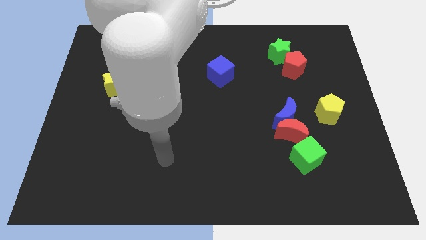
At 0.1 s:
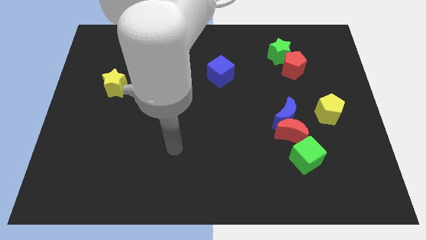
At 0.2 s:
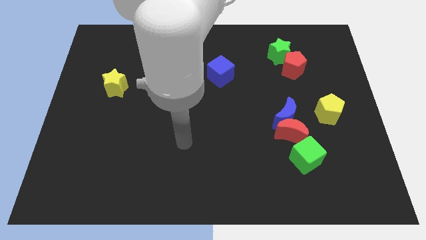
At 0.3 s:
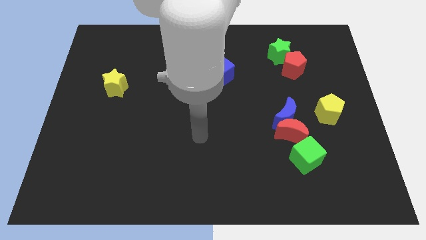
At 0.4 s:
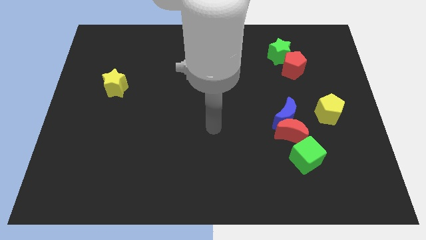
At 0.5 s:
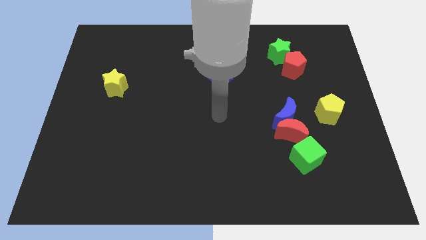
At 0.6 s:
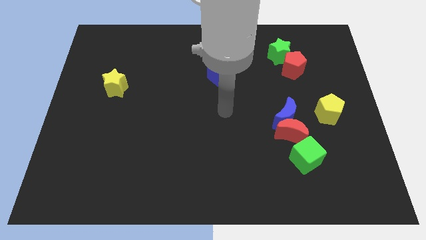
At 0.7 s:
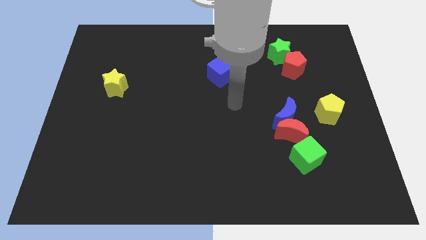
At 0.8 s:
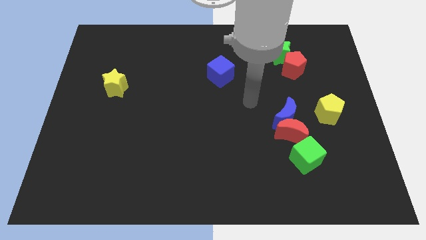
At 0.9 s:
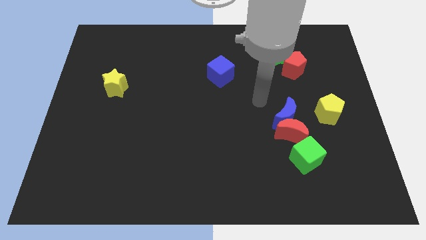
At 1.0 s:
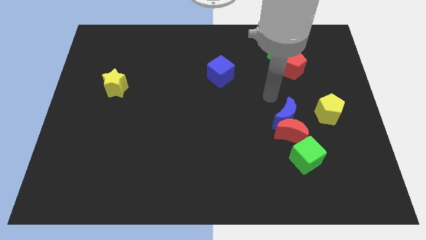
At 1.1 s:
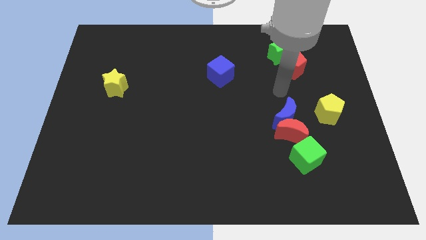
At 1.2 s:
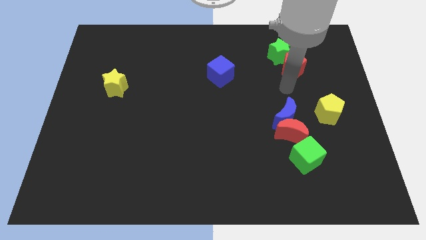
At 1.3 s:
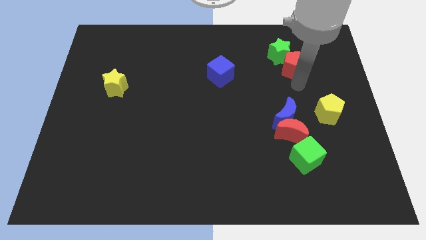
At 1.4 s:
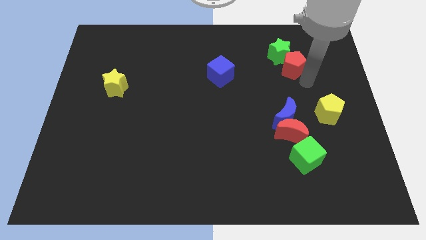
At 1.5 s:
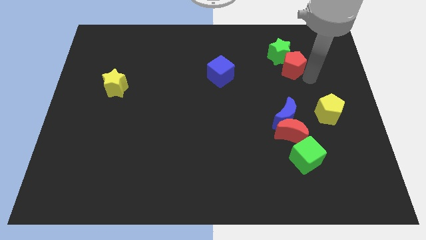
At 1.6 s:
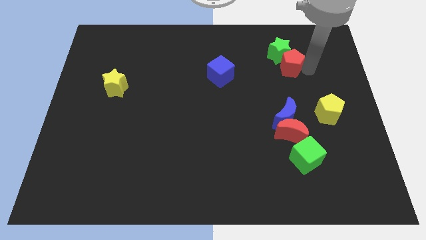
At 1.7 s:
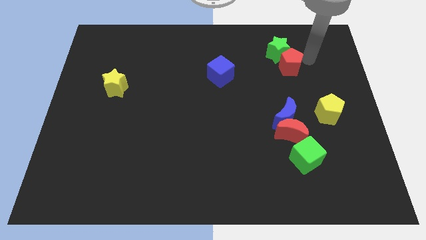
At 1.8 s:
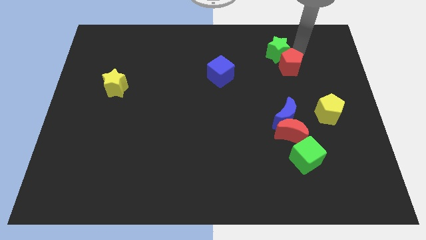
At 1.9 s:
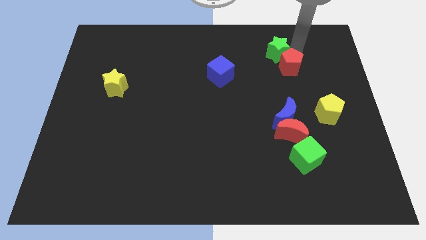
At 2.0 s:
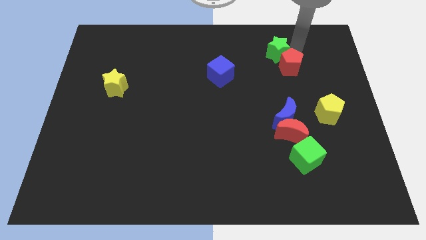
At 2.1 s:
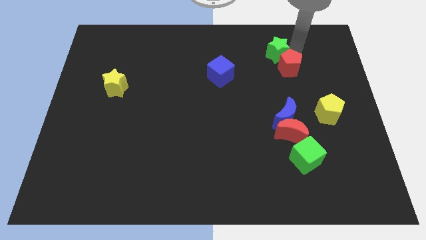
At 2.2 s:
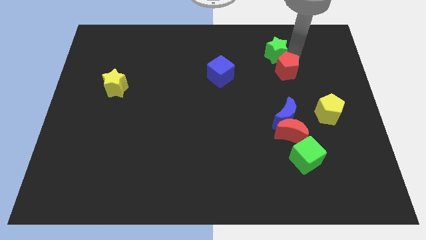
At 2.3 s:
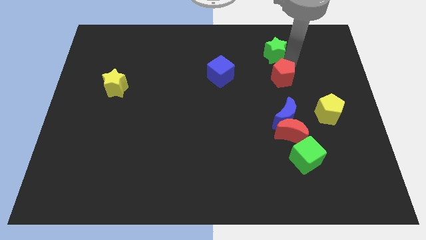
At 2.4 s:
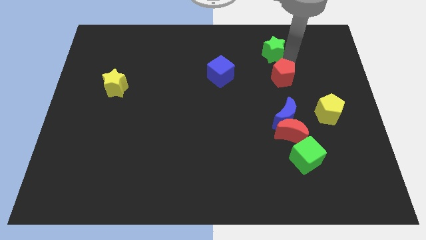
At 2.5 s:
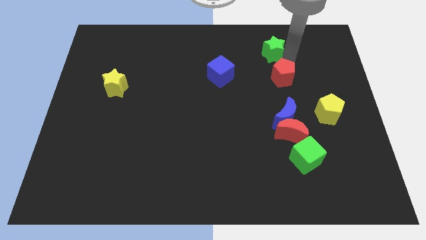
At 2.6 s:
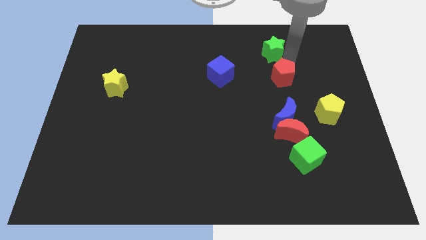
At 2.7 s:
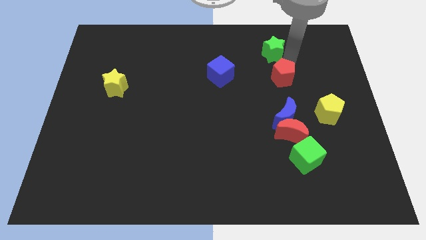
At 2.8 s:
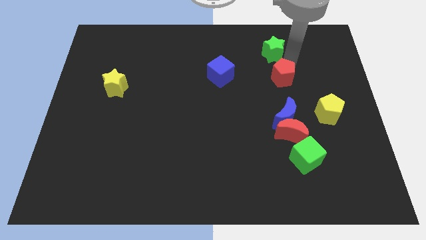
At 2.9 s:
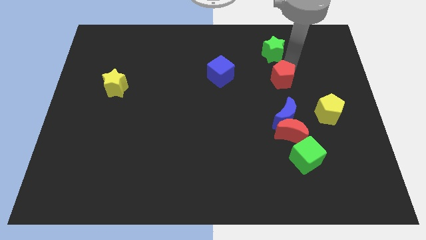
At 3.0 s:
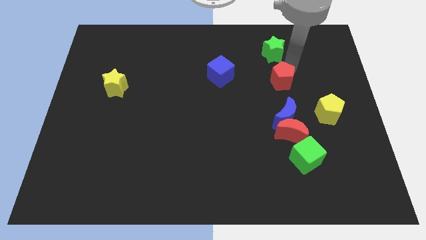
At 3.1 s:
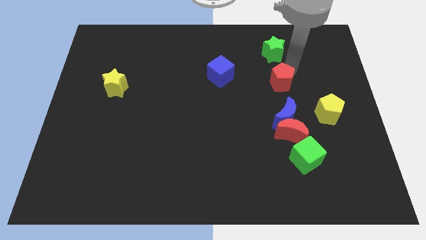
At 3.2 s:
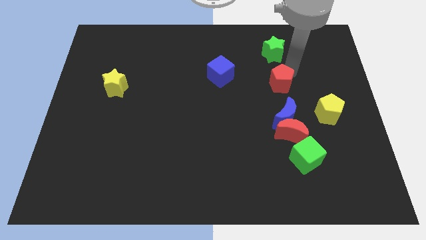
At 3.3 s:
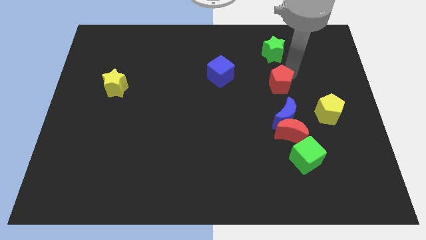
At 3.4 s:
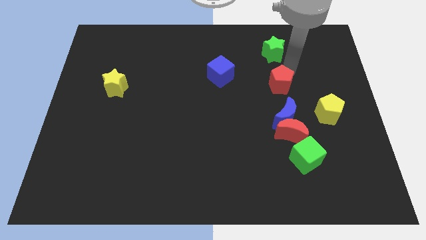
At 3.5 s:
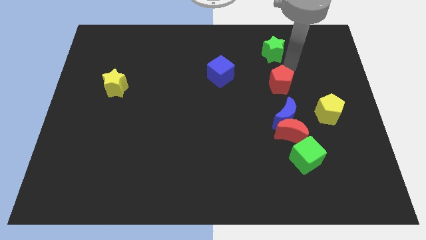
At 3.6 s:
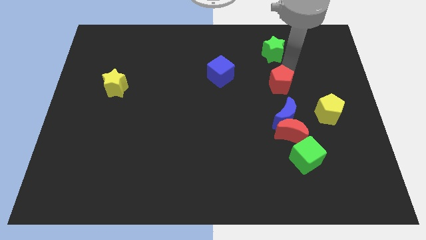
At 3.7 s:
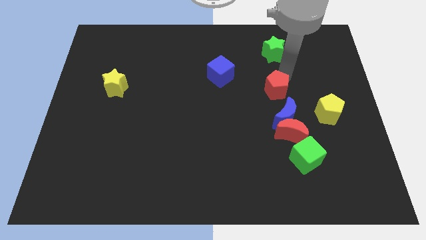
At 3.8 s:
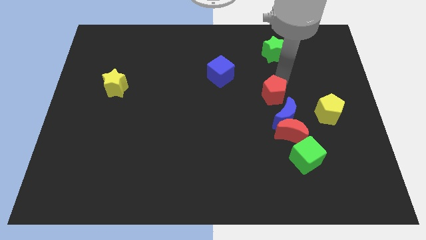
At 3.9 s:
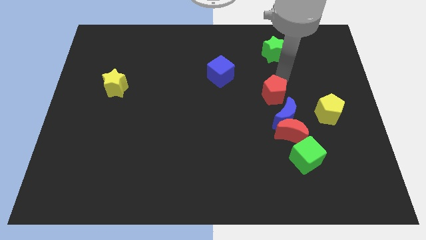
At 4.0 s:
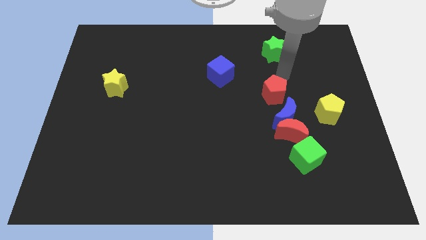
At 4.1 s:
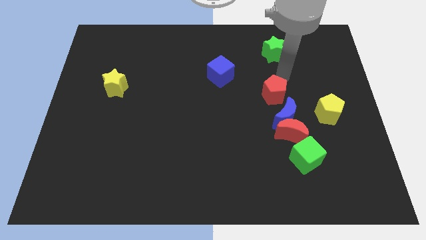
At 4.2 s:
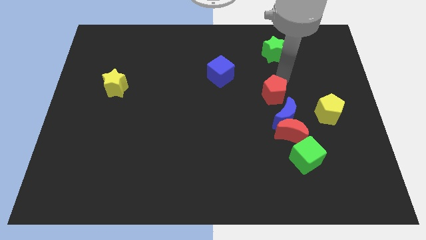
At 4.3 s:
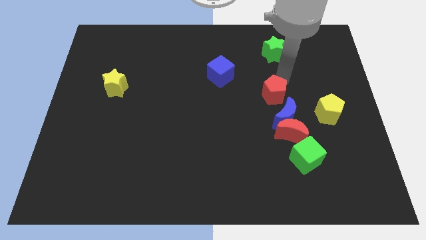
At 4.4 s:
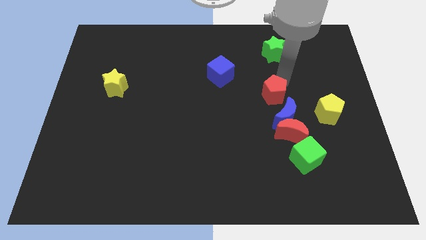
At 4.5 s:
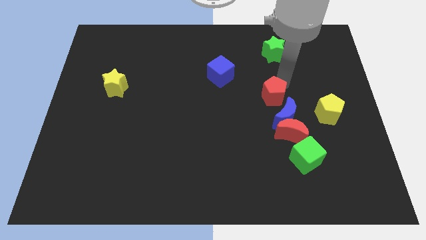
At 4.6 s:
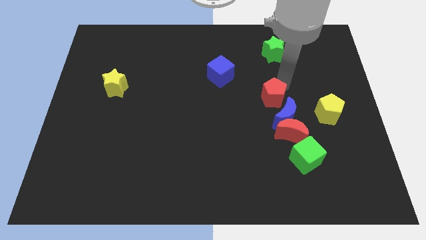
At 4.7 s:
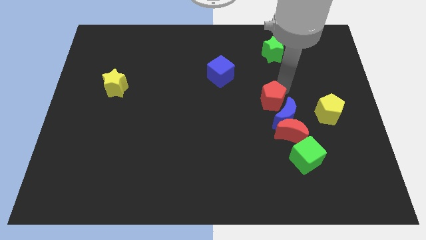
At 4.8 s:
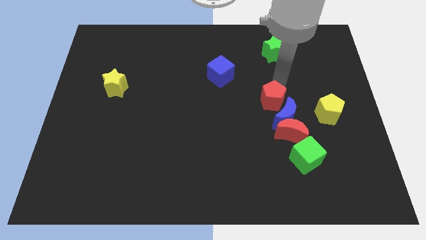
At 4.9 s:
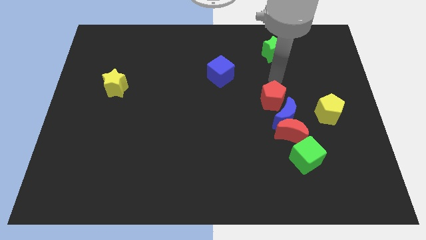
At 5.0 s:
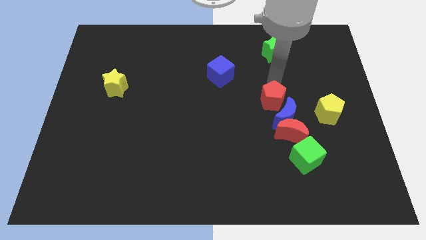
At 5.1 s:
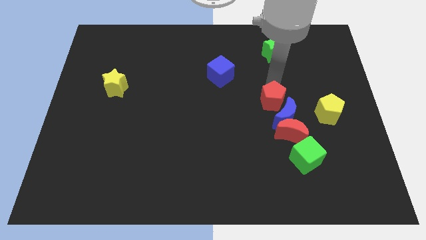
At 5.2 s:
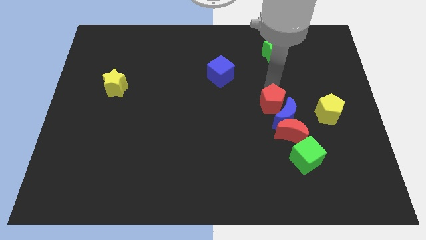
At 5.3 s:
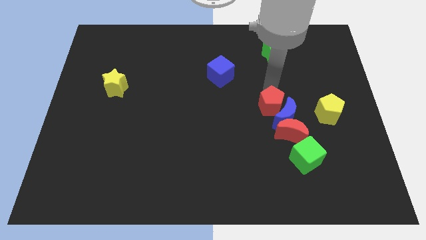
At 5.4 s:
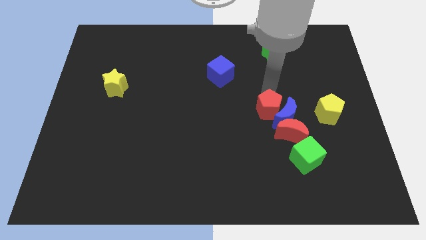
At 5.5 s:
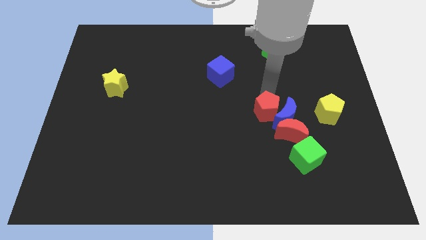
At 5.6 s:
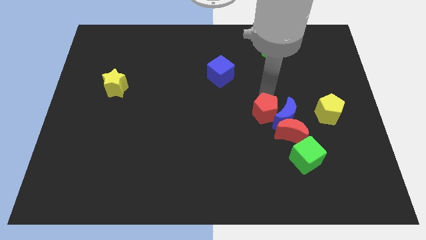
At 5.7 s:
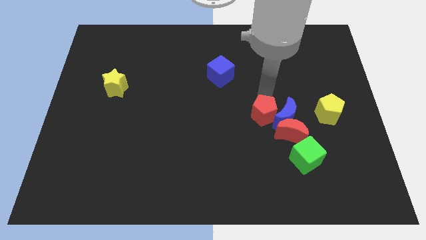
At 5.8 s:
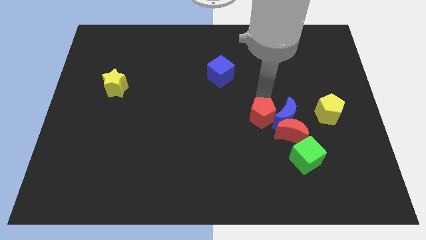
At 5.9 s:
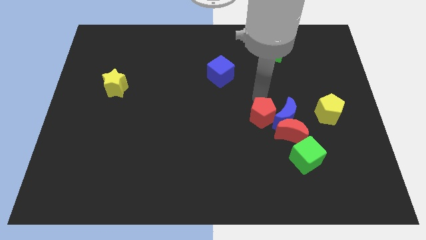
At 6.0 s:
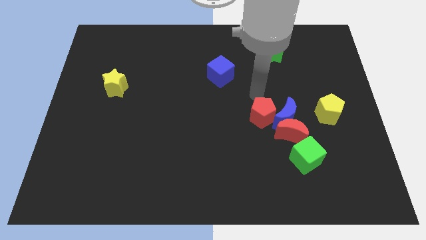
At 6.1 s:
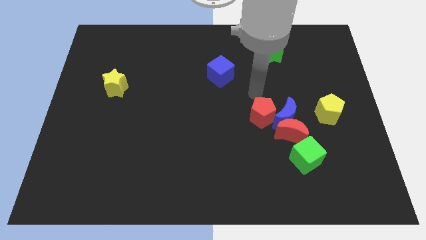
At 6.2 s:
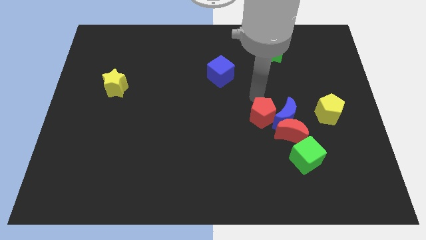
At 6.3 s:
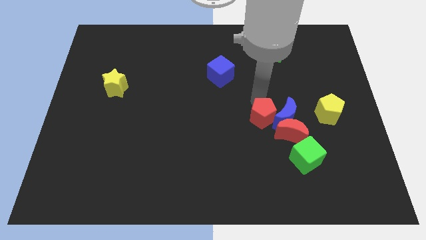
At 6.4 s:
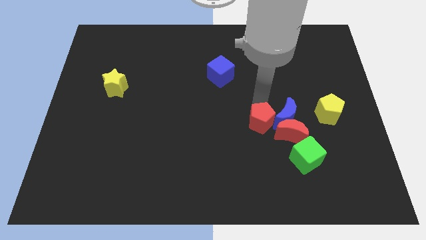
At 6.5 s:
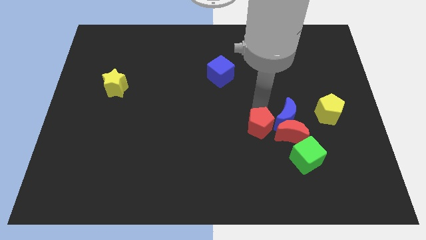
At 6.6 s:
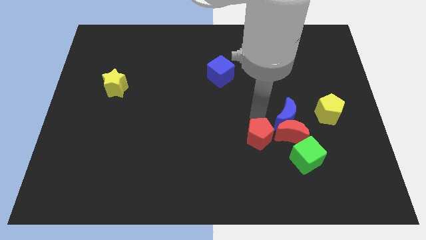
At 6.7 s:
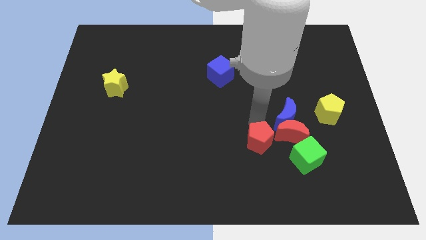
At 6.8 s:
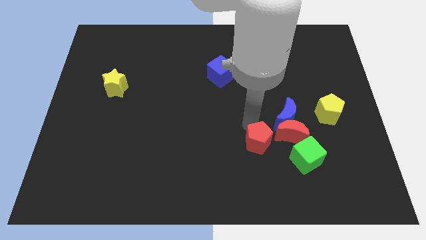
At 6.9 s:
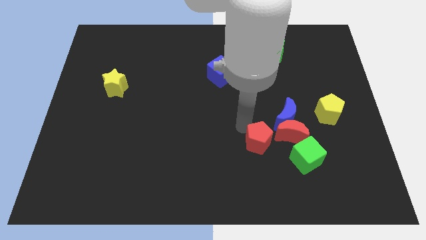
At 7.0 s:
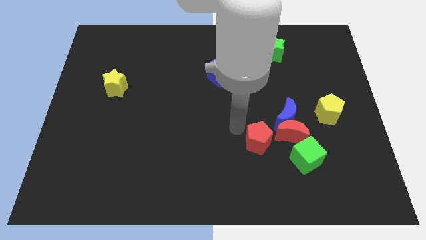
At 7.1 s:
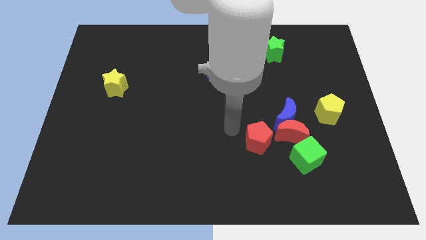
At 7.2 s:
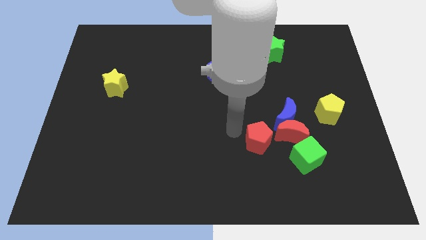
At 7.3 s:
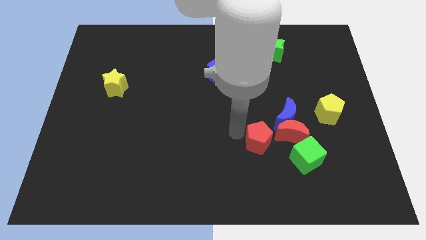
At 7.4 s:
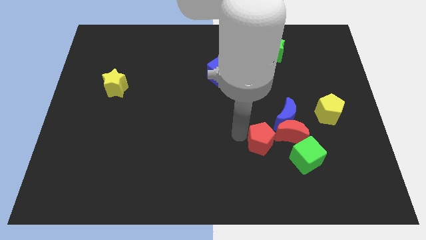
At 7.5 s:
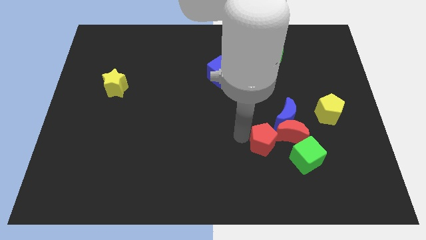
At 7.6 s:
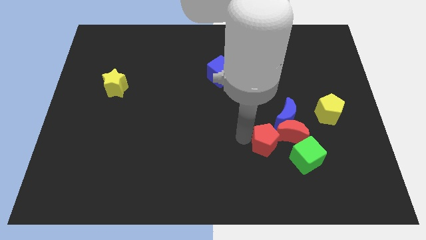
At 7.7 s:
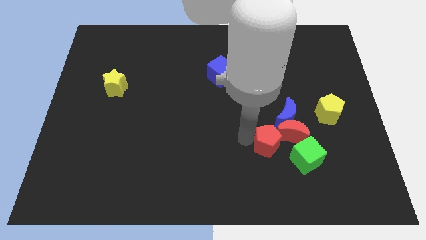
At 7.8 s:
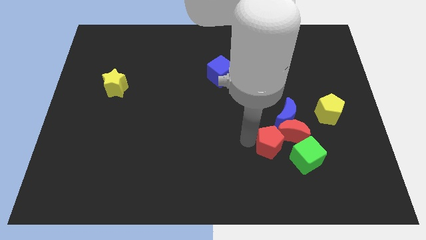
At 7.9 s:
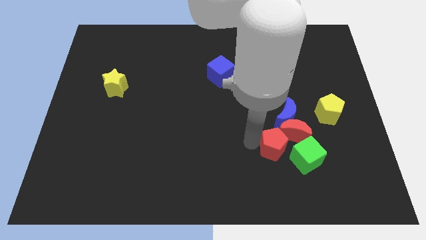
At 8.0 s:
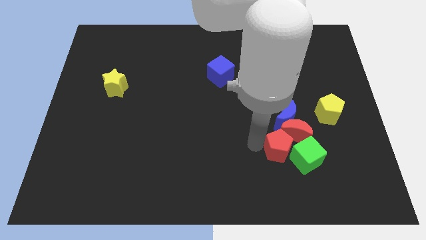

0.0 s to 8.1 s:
push the red pentagon to the bottom side of the red moon
